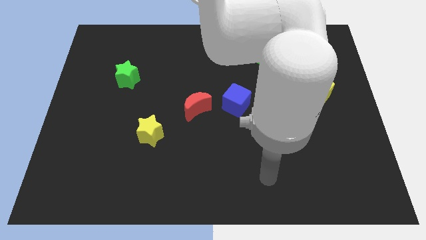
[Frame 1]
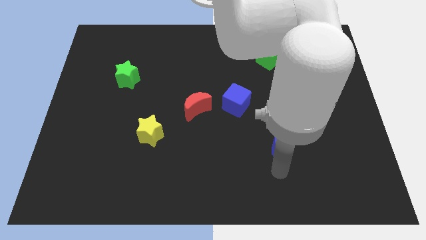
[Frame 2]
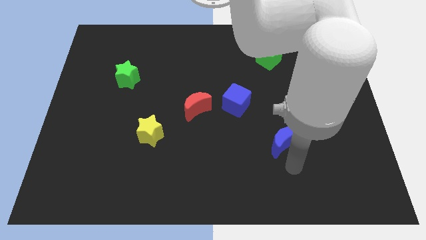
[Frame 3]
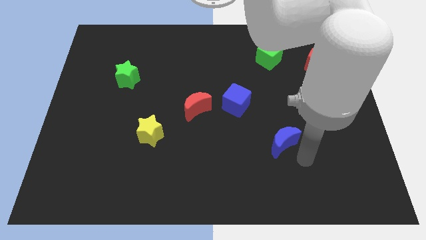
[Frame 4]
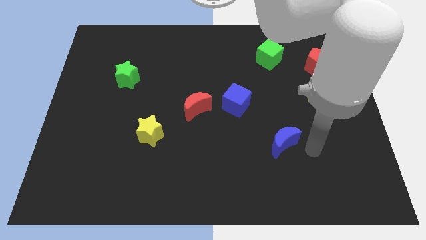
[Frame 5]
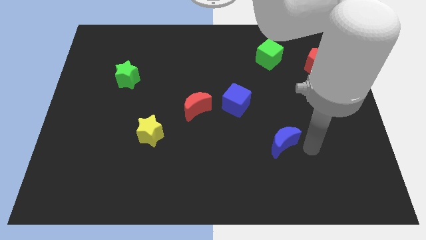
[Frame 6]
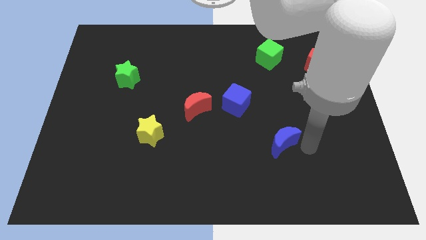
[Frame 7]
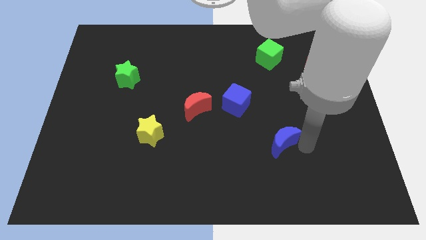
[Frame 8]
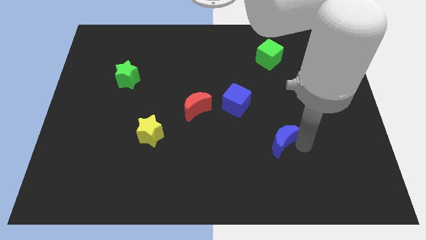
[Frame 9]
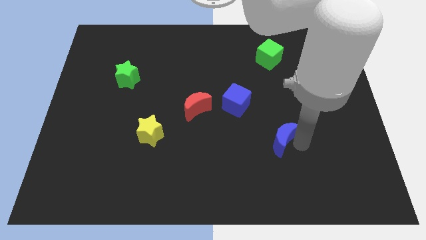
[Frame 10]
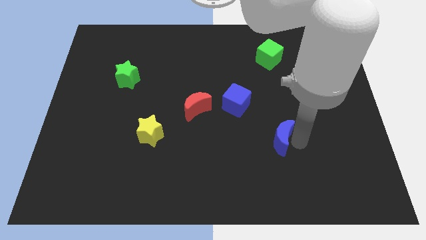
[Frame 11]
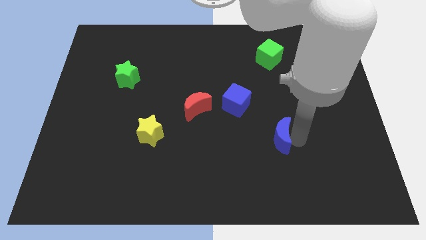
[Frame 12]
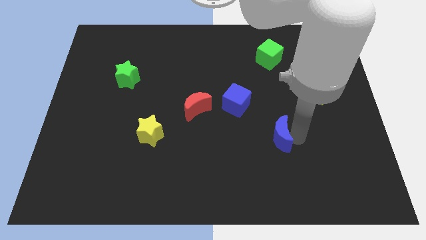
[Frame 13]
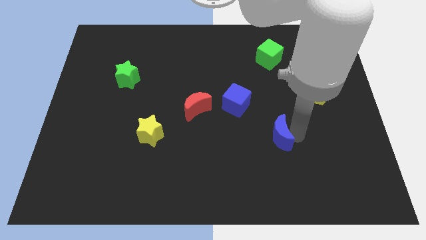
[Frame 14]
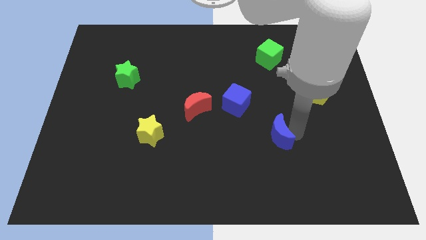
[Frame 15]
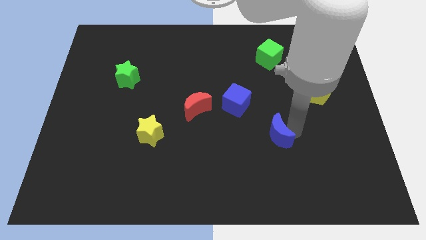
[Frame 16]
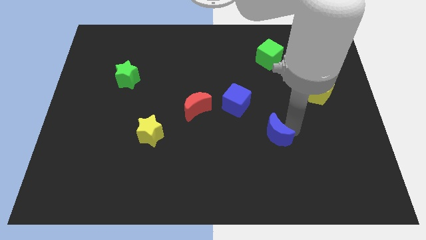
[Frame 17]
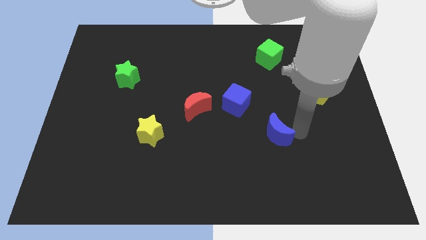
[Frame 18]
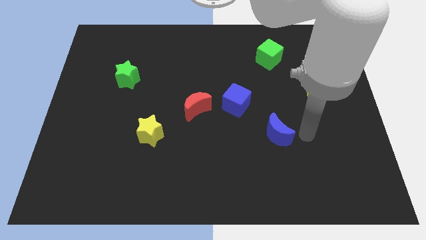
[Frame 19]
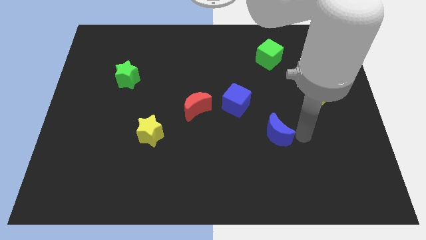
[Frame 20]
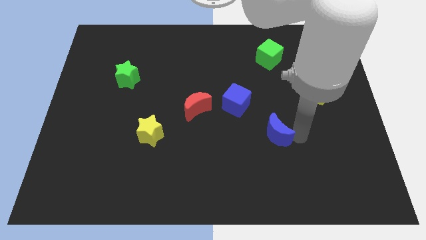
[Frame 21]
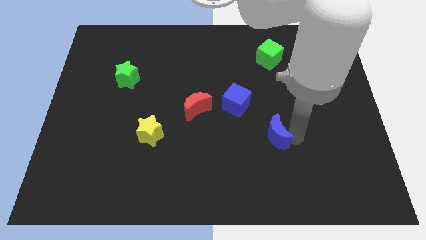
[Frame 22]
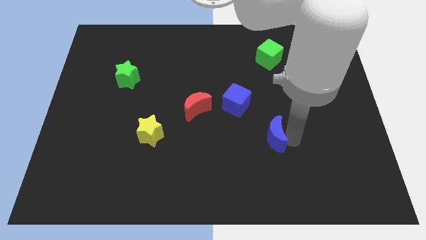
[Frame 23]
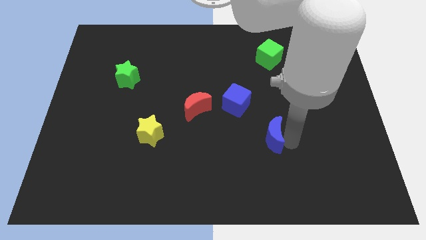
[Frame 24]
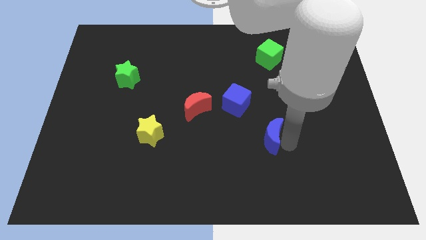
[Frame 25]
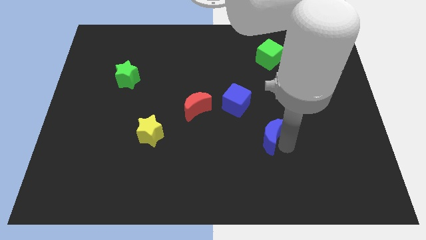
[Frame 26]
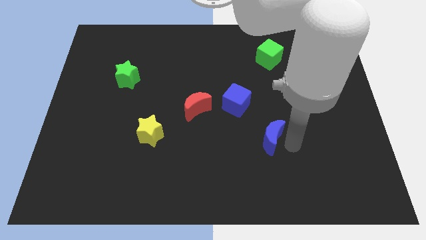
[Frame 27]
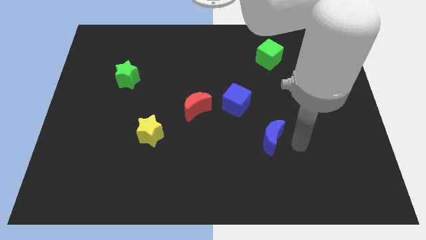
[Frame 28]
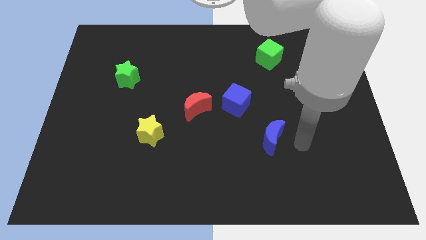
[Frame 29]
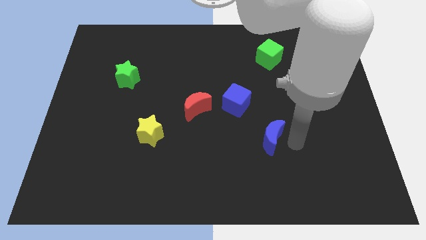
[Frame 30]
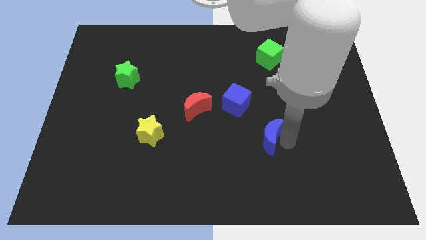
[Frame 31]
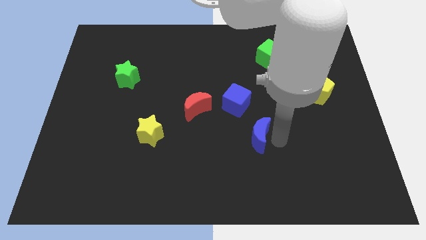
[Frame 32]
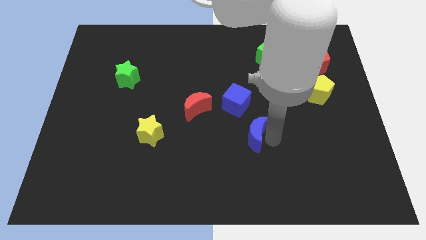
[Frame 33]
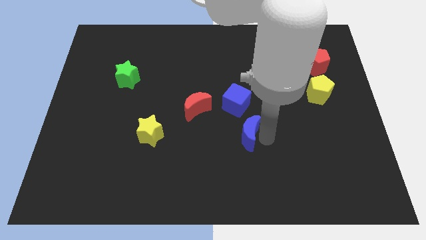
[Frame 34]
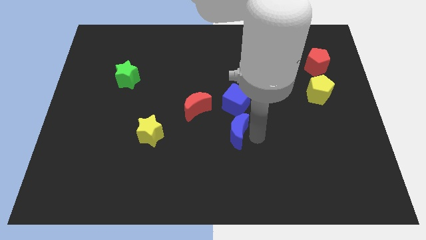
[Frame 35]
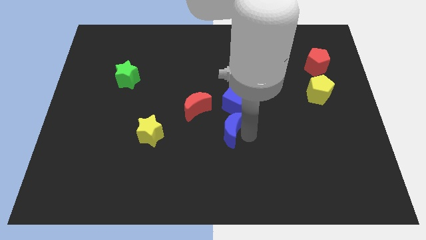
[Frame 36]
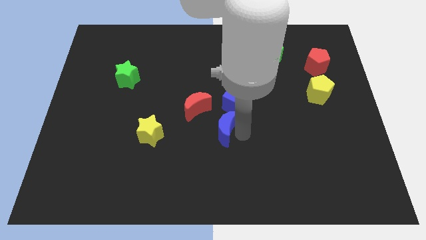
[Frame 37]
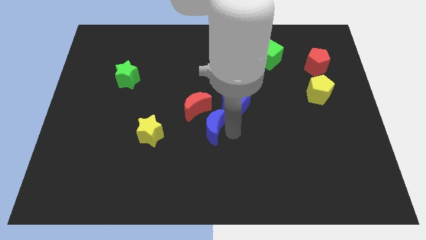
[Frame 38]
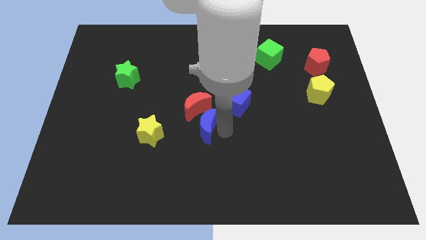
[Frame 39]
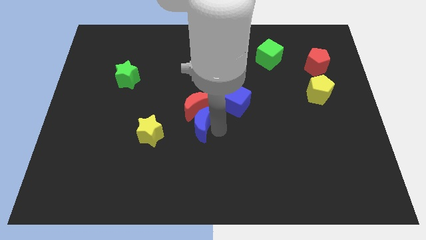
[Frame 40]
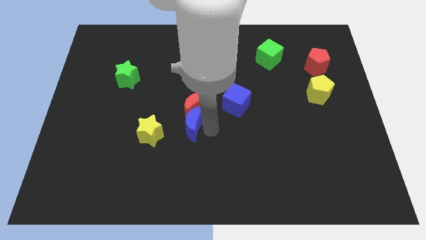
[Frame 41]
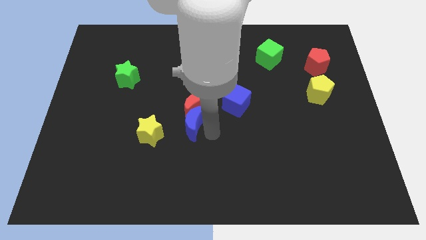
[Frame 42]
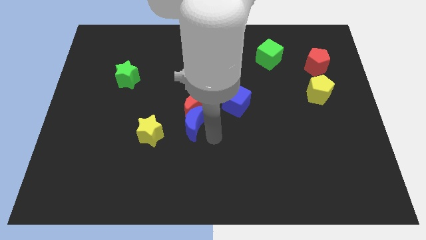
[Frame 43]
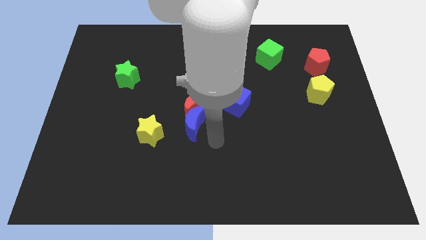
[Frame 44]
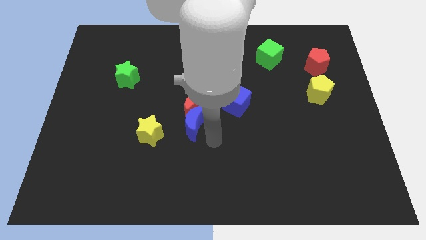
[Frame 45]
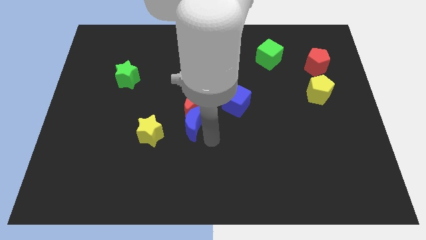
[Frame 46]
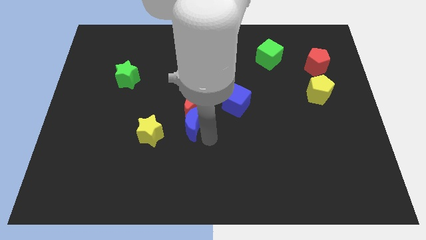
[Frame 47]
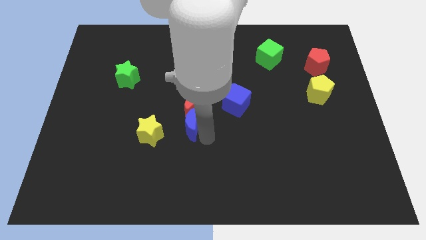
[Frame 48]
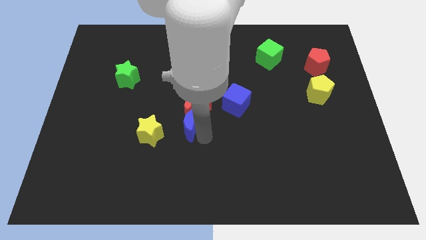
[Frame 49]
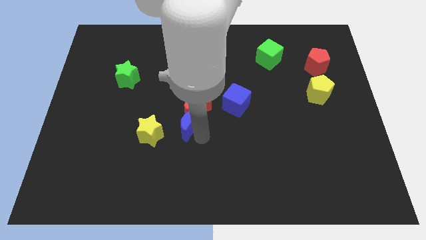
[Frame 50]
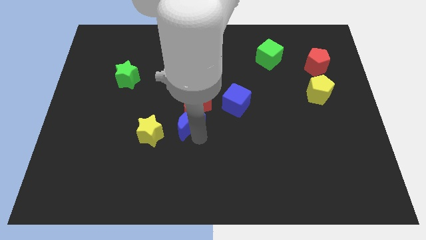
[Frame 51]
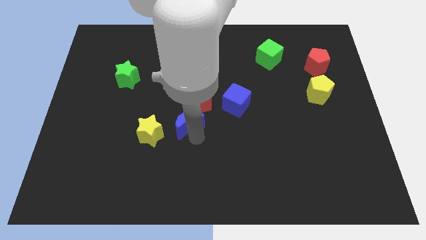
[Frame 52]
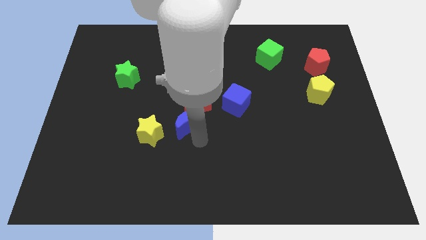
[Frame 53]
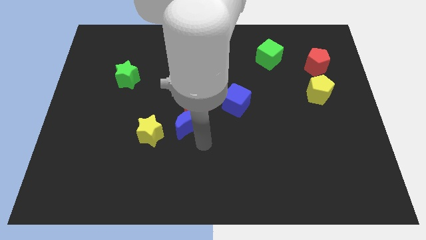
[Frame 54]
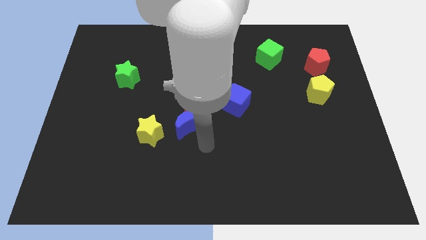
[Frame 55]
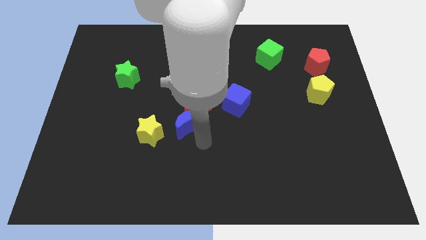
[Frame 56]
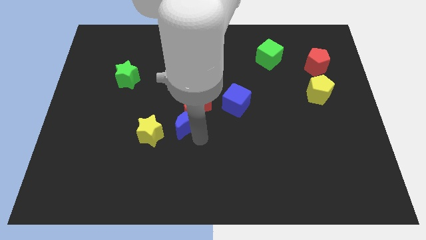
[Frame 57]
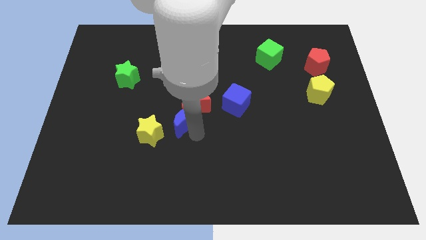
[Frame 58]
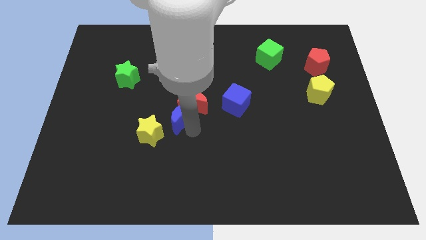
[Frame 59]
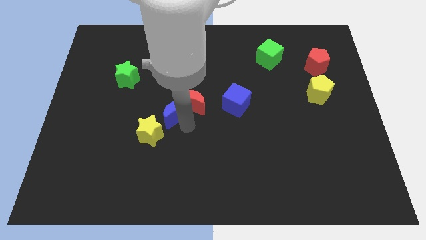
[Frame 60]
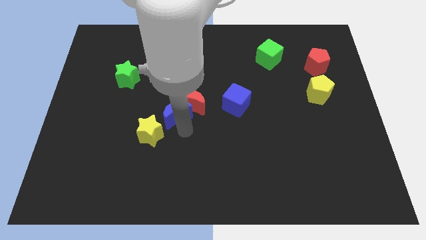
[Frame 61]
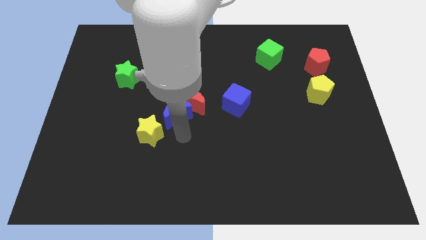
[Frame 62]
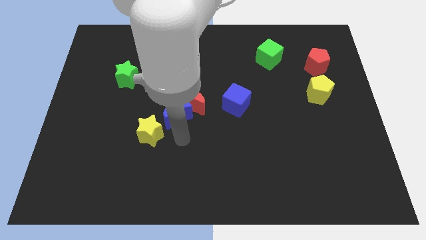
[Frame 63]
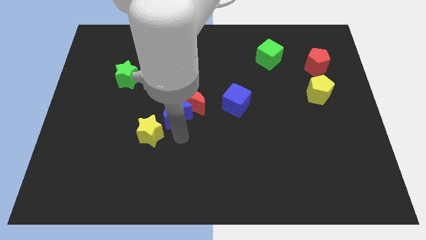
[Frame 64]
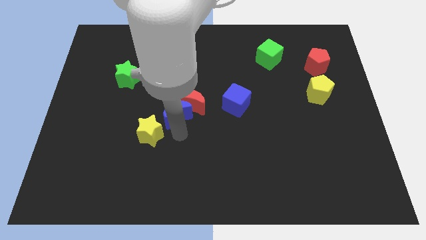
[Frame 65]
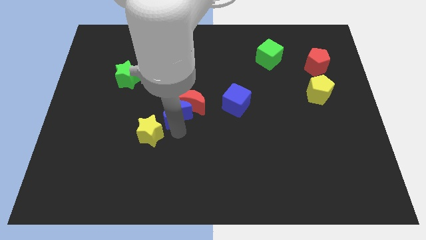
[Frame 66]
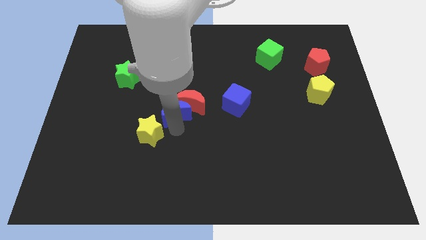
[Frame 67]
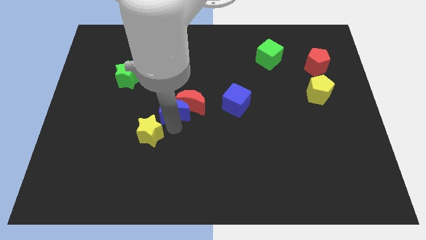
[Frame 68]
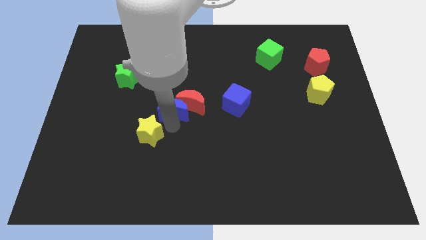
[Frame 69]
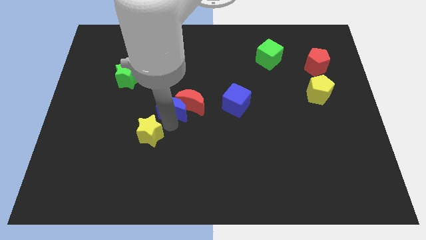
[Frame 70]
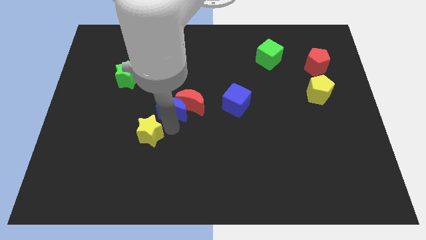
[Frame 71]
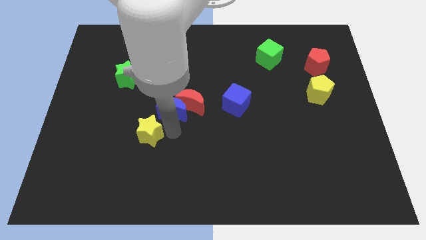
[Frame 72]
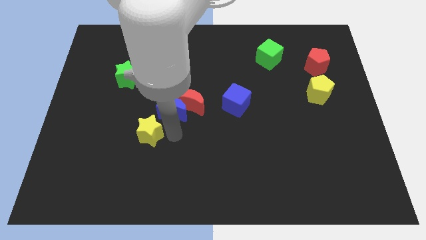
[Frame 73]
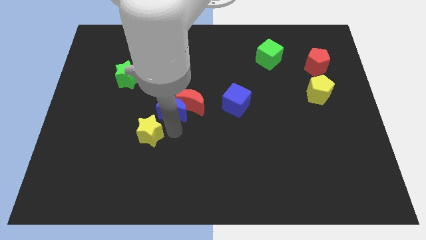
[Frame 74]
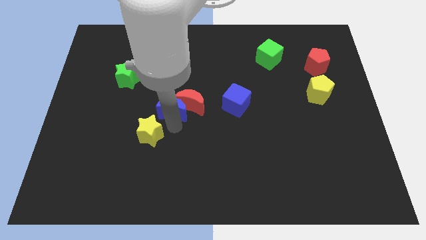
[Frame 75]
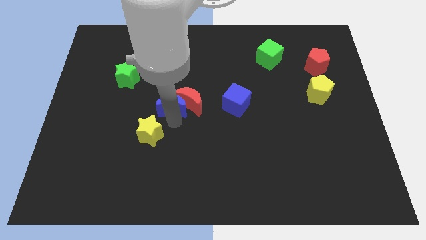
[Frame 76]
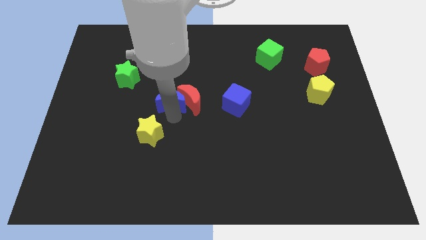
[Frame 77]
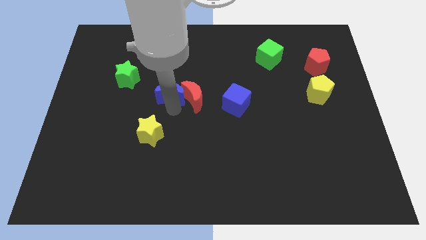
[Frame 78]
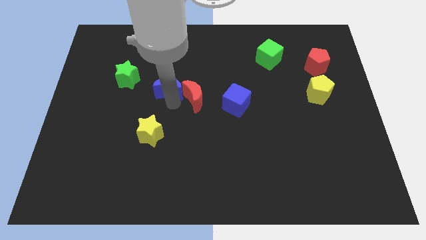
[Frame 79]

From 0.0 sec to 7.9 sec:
push the blue moon right of the green star
